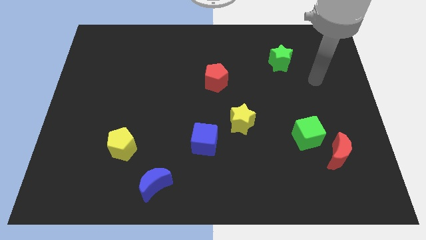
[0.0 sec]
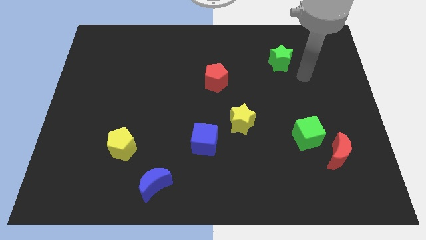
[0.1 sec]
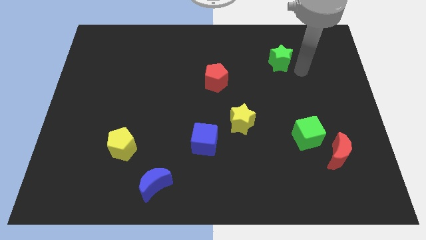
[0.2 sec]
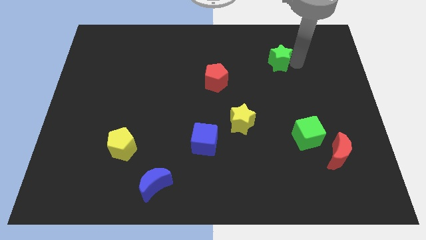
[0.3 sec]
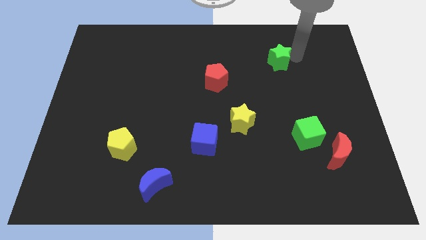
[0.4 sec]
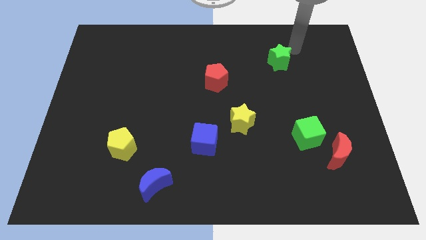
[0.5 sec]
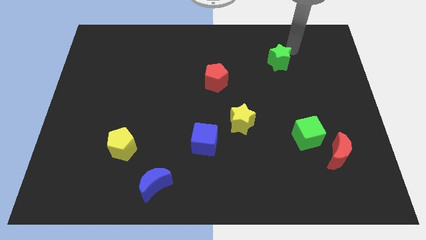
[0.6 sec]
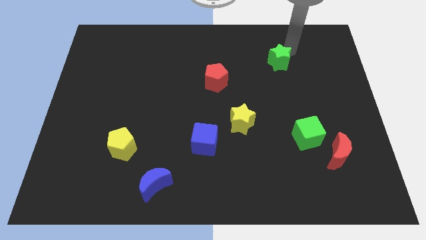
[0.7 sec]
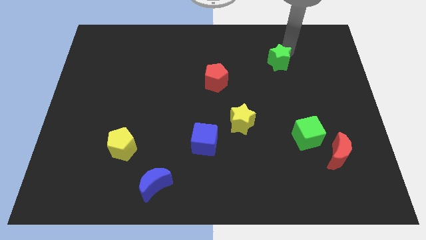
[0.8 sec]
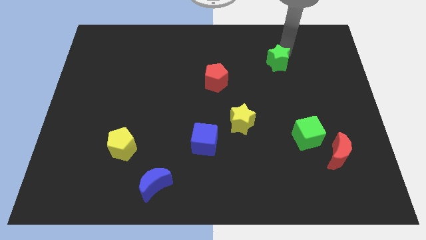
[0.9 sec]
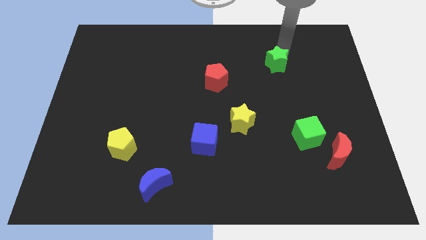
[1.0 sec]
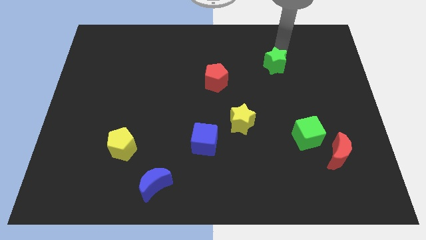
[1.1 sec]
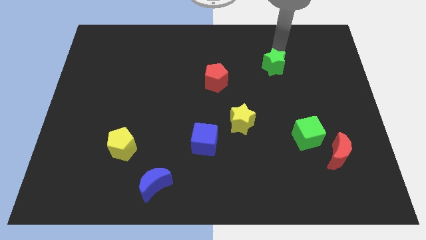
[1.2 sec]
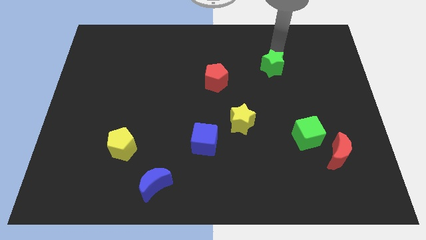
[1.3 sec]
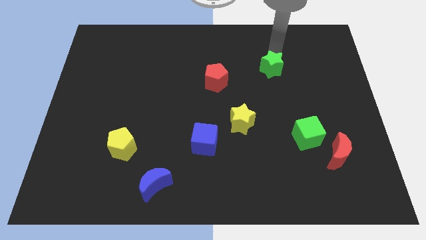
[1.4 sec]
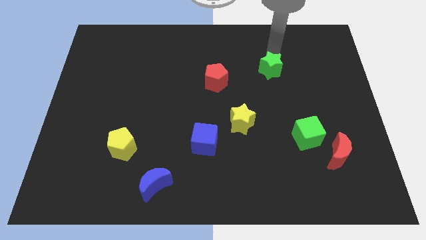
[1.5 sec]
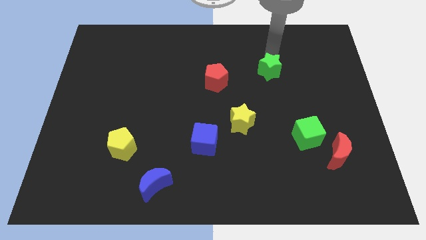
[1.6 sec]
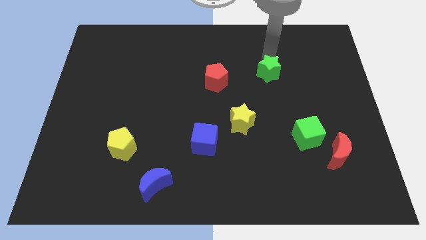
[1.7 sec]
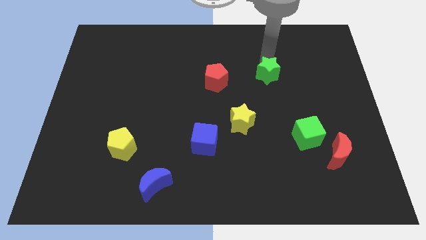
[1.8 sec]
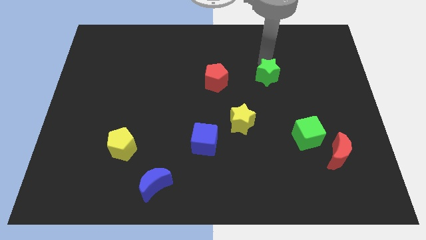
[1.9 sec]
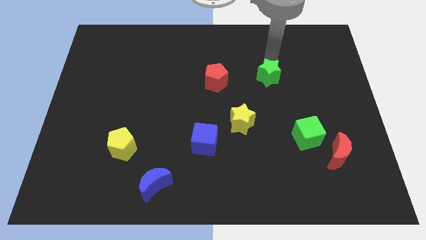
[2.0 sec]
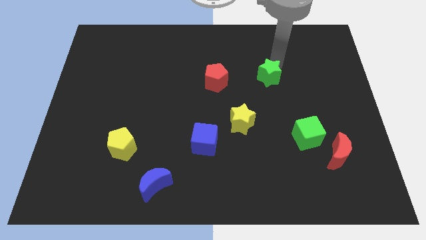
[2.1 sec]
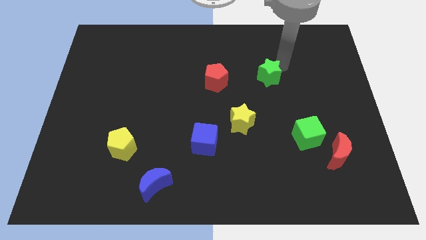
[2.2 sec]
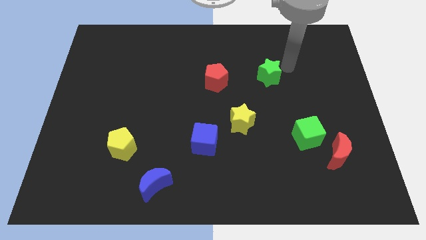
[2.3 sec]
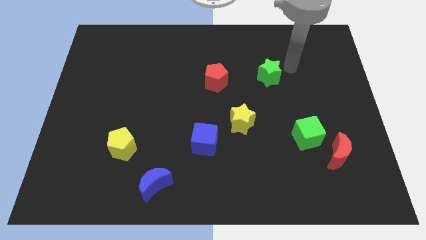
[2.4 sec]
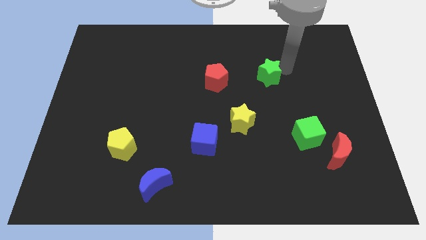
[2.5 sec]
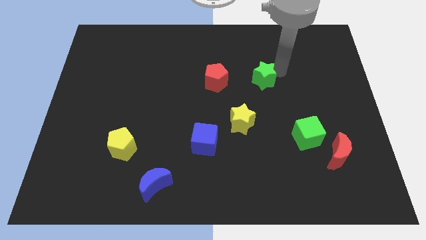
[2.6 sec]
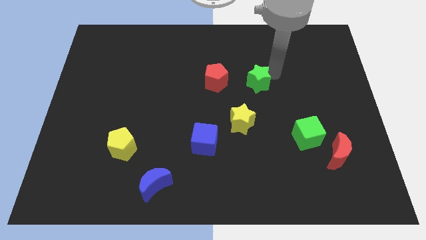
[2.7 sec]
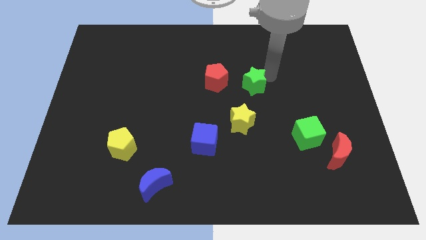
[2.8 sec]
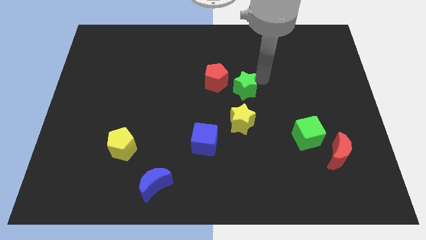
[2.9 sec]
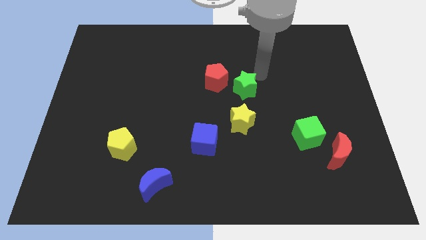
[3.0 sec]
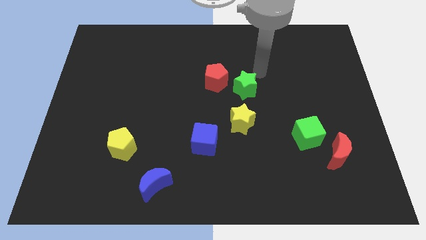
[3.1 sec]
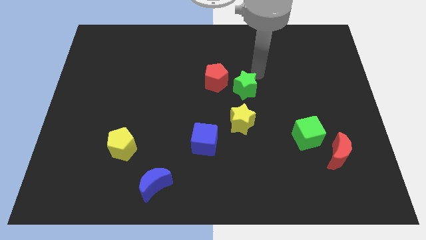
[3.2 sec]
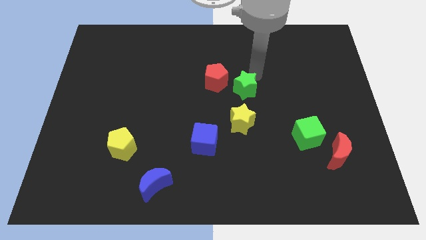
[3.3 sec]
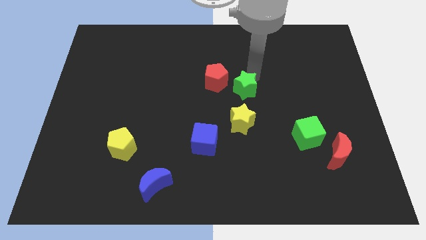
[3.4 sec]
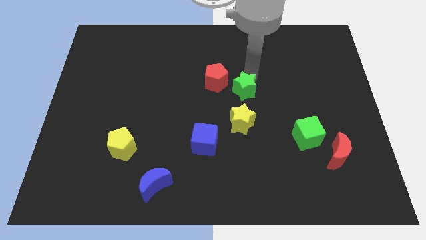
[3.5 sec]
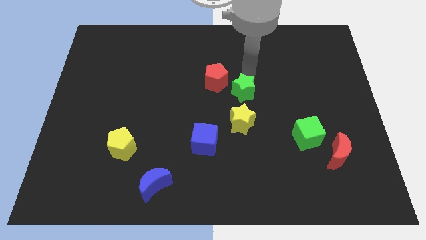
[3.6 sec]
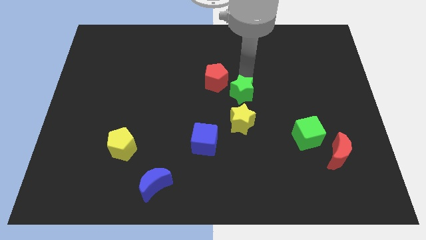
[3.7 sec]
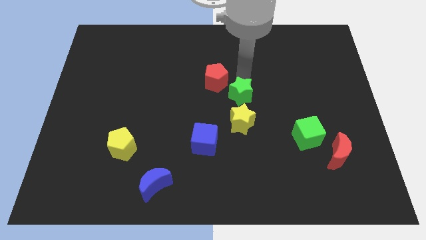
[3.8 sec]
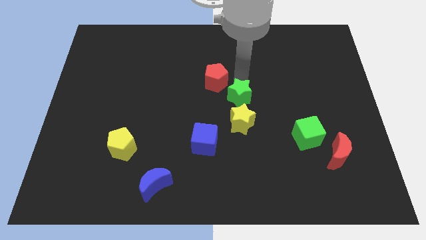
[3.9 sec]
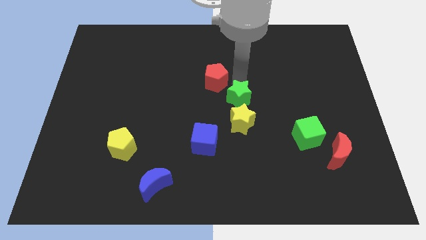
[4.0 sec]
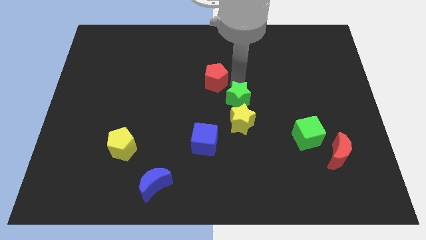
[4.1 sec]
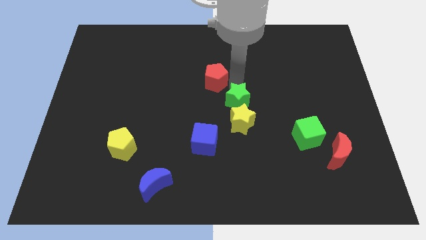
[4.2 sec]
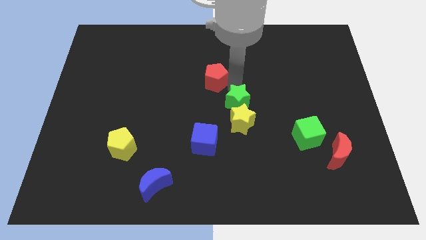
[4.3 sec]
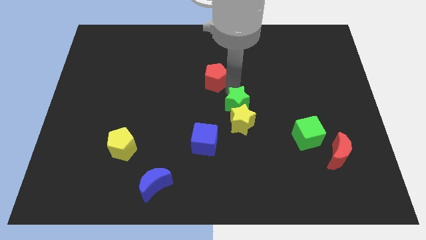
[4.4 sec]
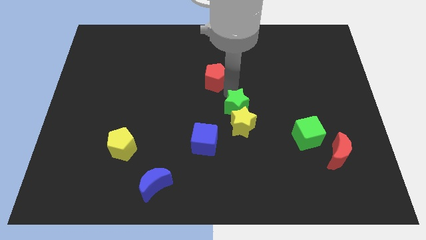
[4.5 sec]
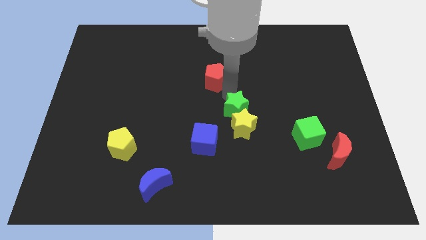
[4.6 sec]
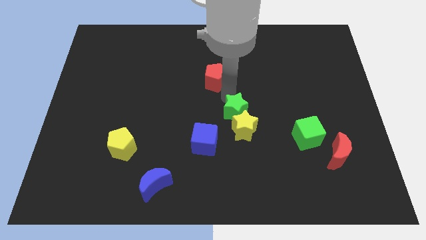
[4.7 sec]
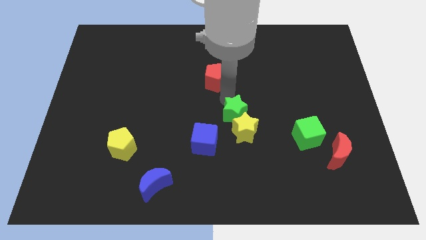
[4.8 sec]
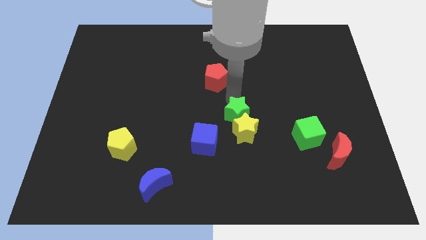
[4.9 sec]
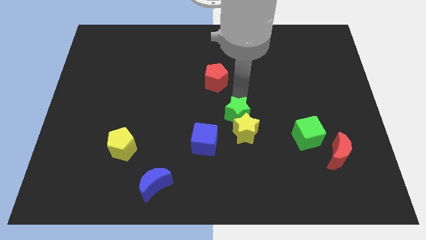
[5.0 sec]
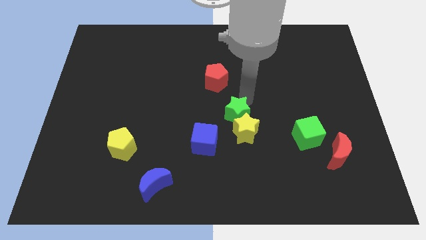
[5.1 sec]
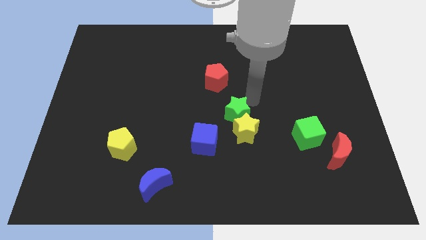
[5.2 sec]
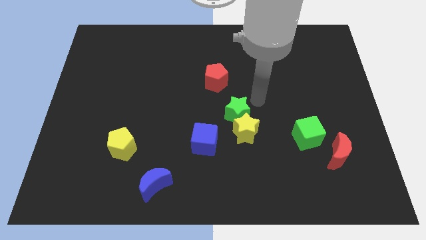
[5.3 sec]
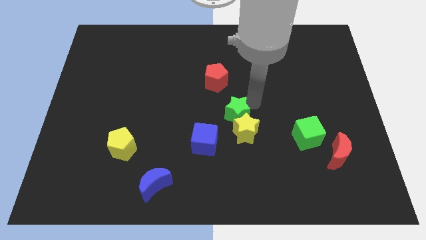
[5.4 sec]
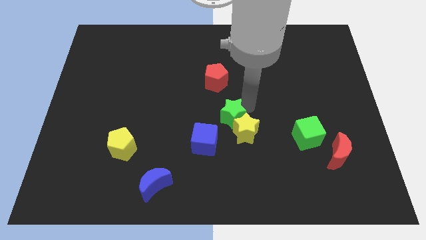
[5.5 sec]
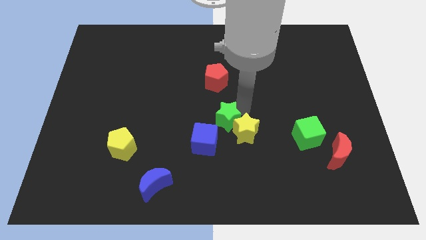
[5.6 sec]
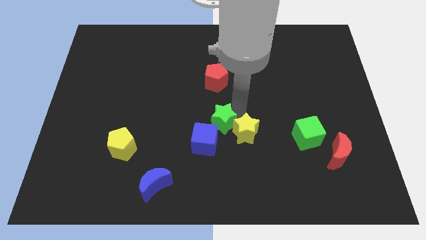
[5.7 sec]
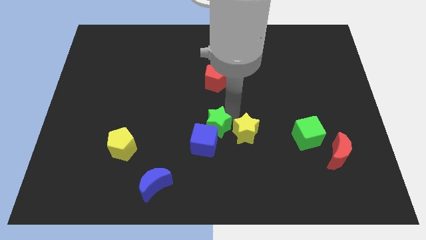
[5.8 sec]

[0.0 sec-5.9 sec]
slide the green star to the blue cube
